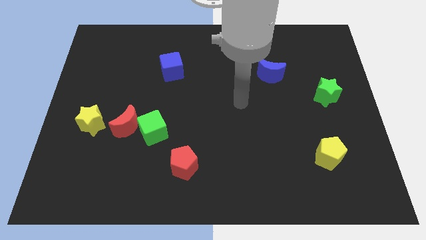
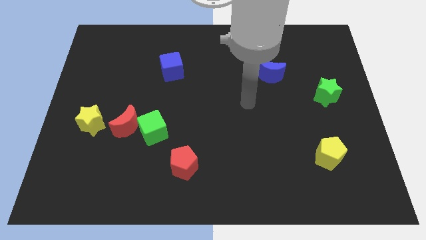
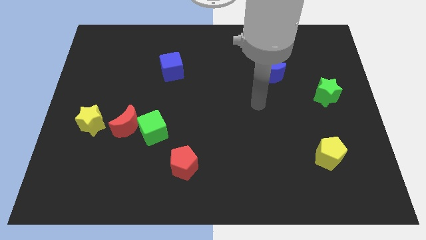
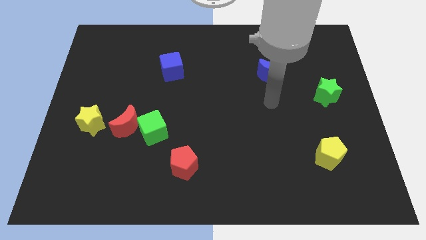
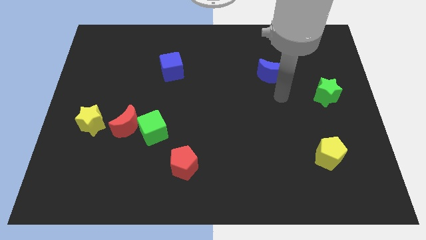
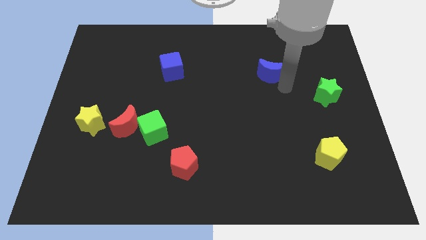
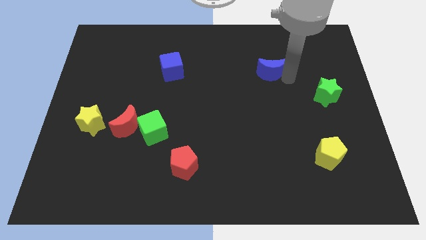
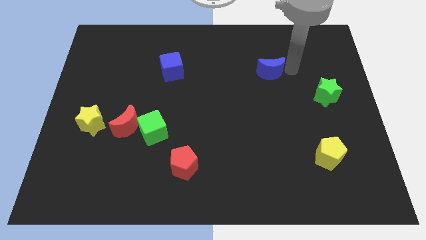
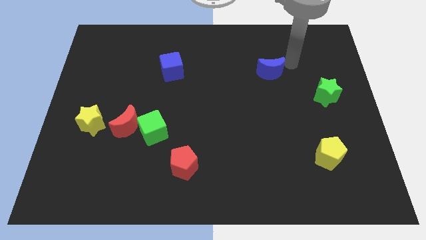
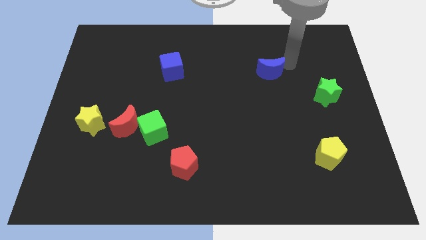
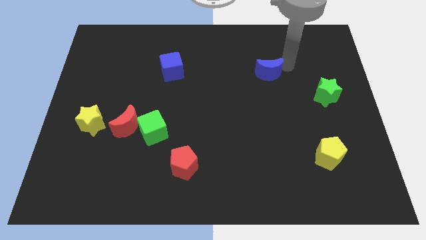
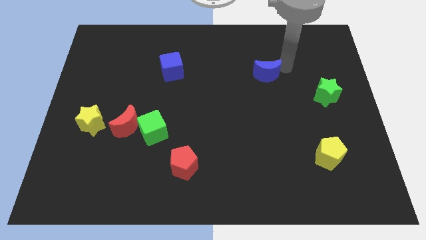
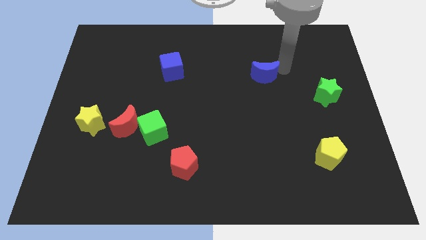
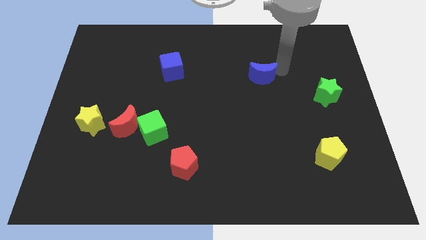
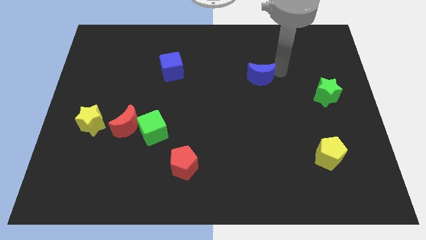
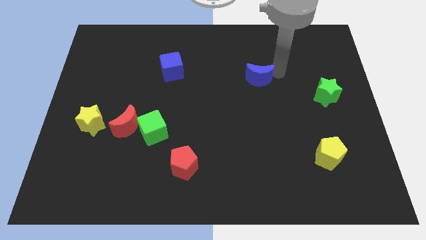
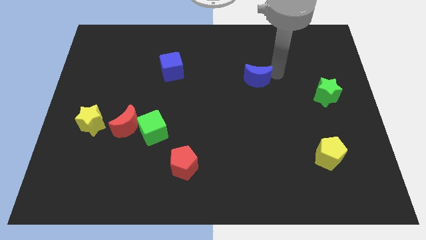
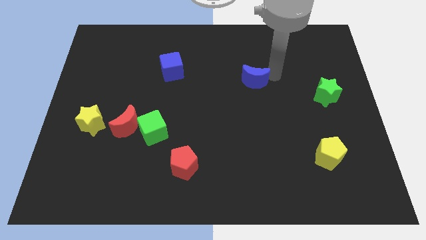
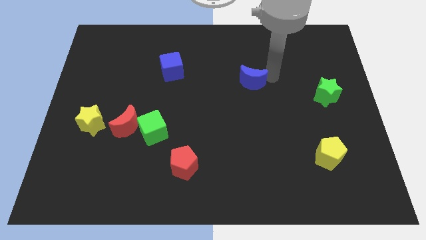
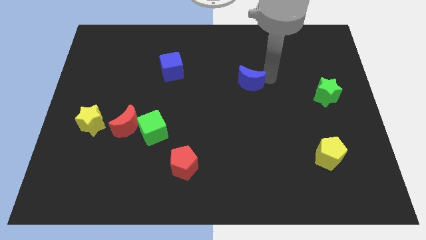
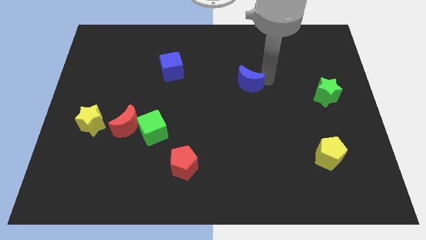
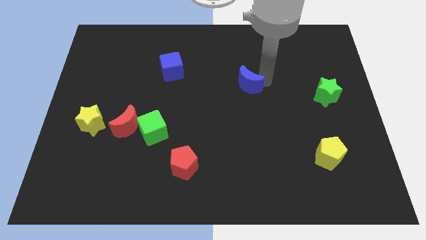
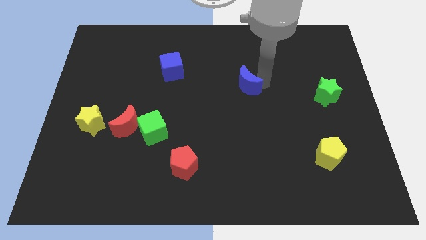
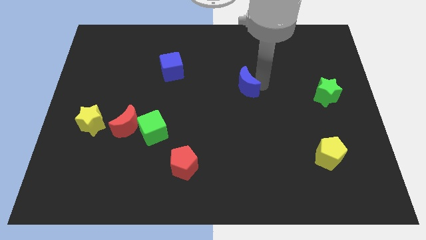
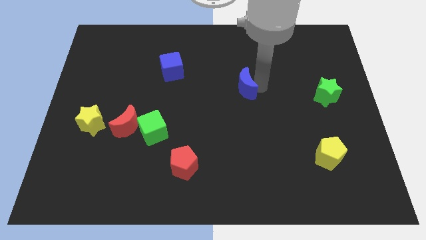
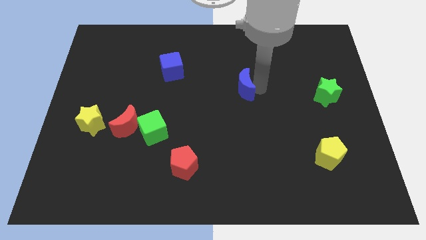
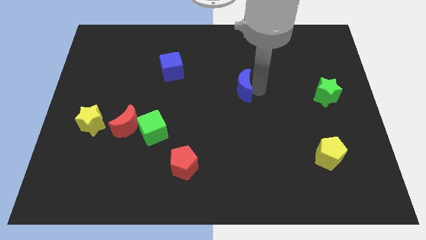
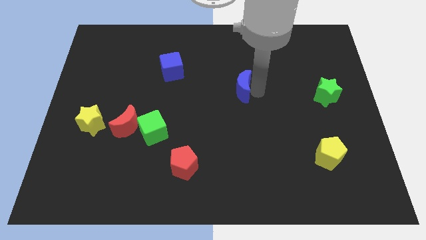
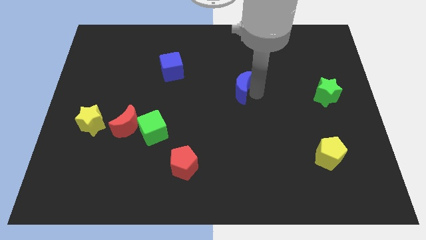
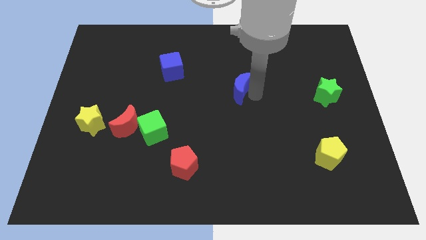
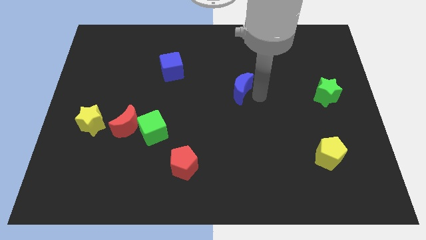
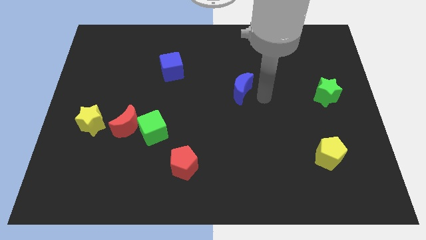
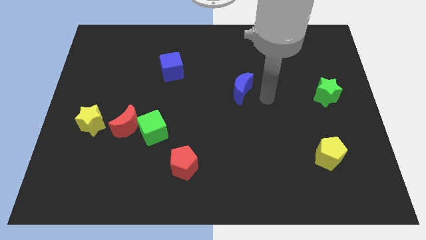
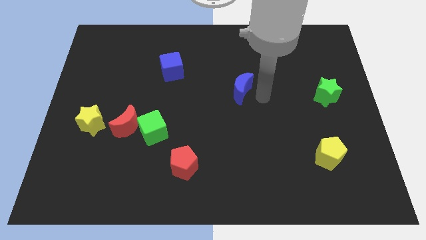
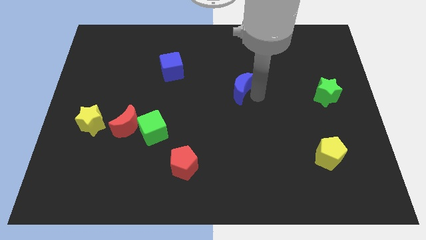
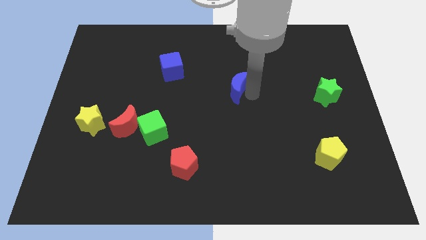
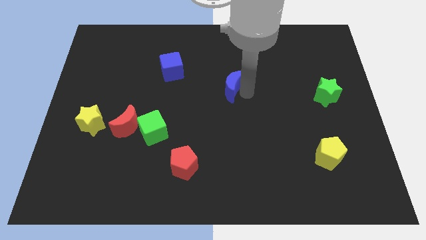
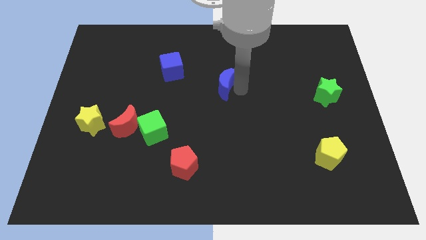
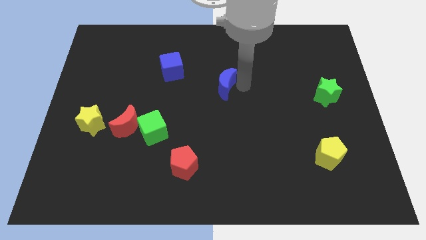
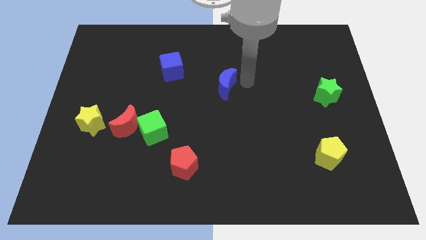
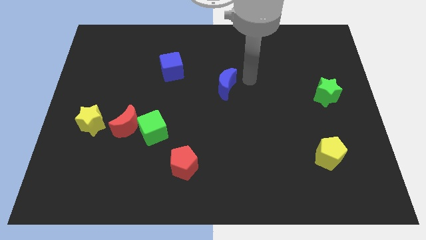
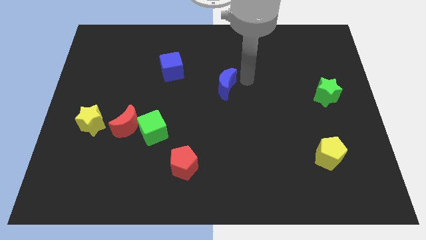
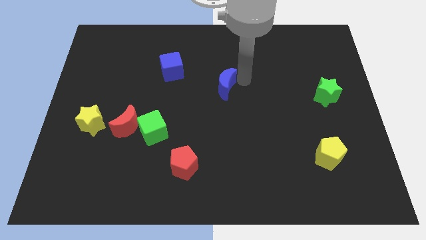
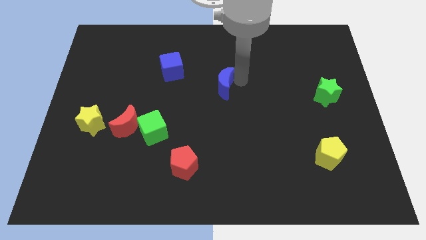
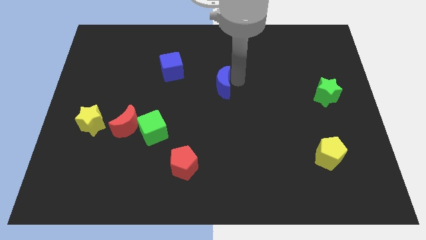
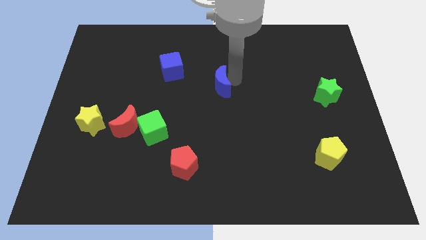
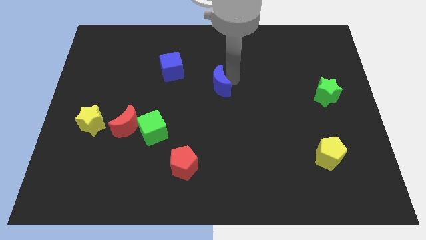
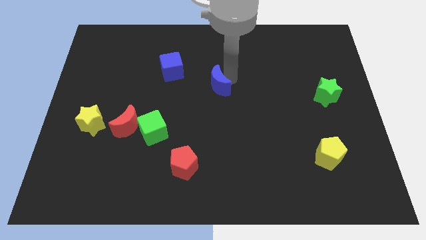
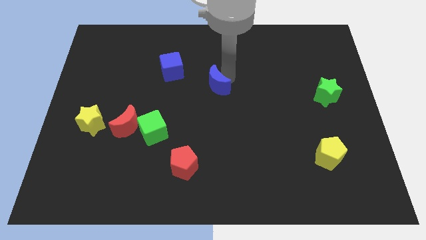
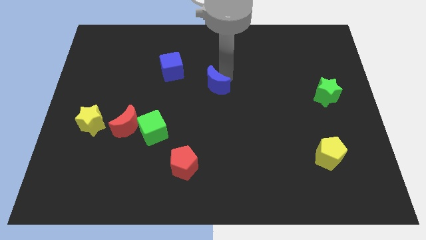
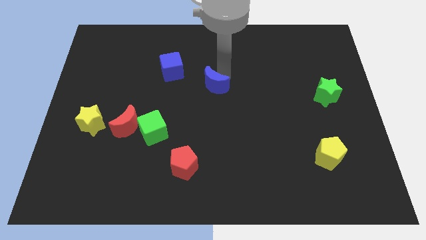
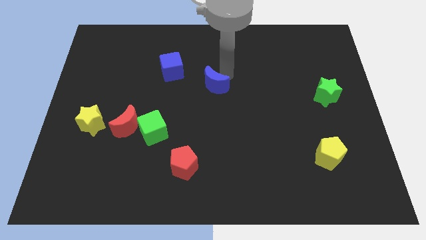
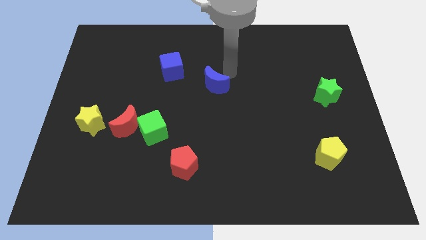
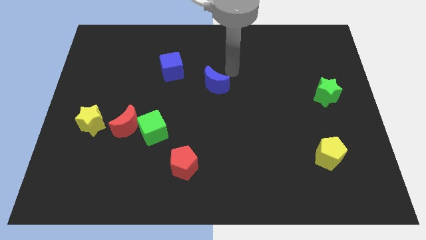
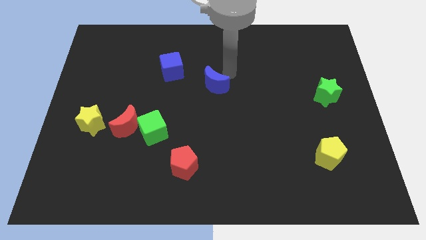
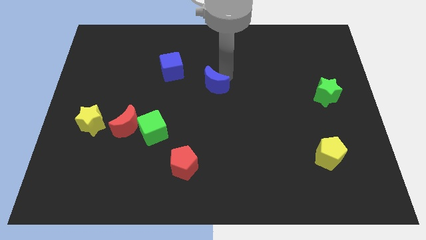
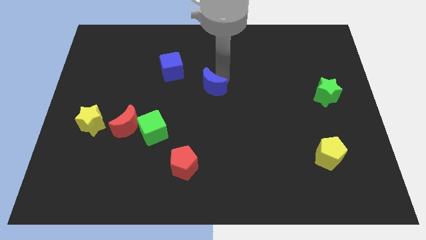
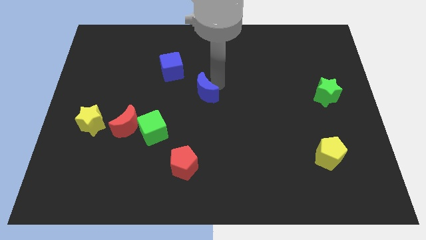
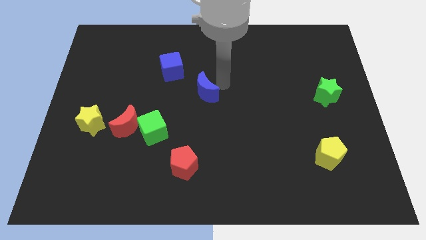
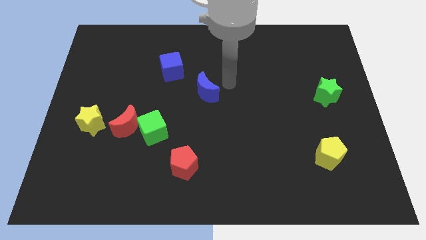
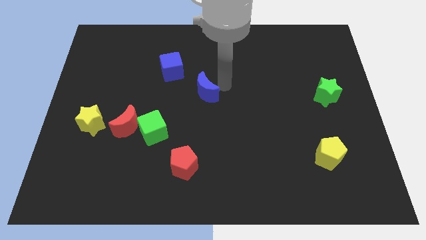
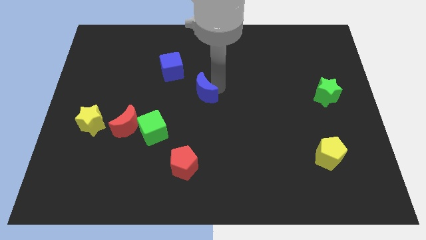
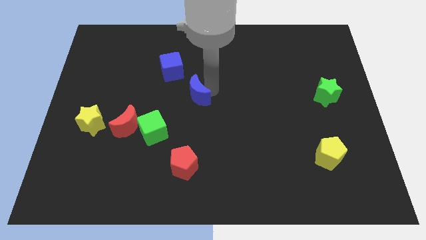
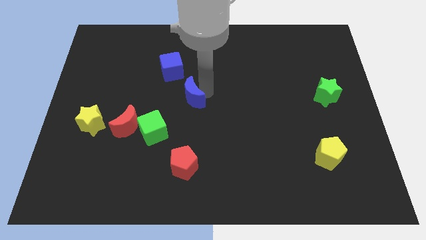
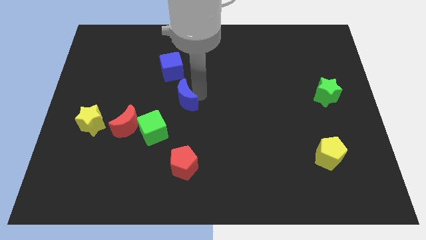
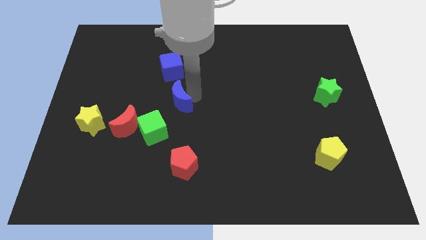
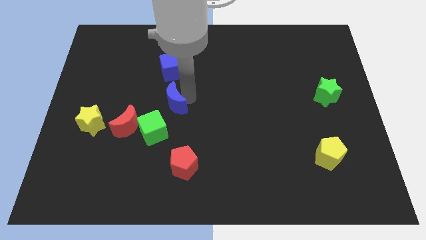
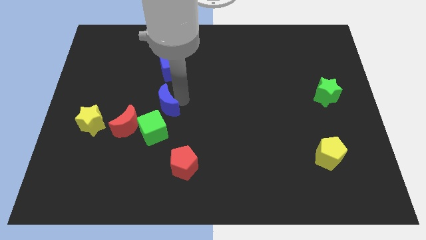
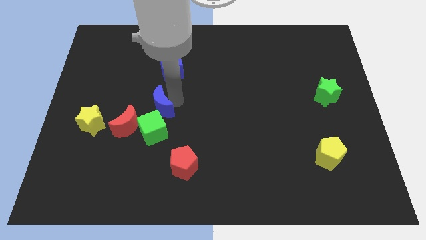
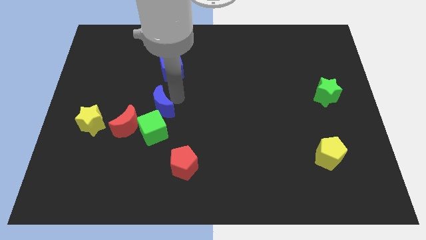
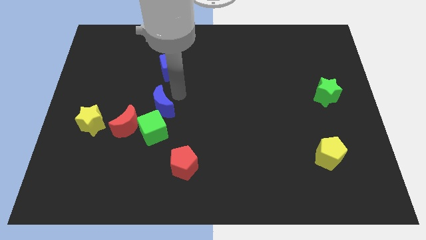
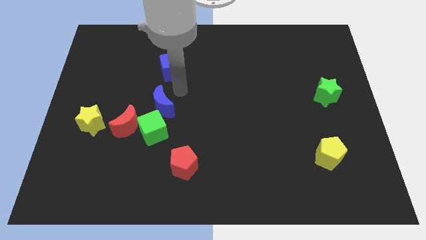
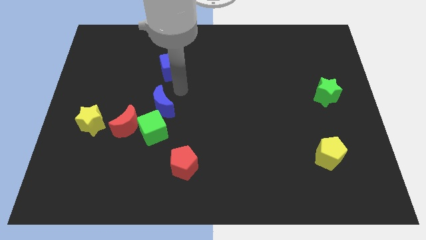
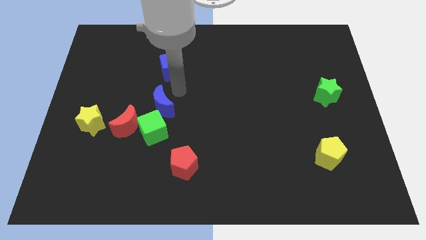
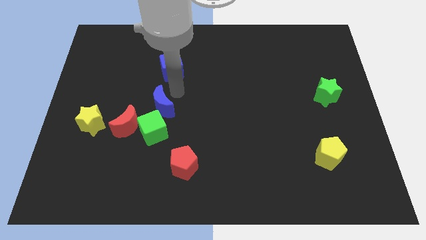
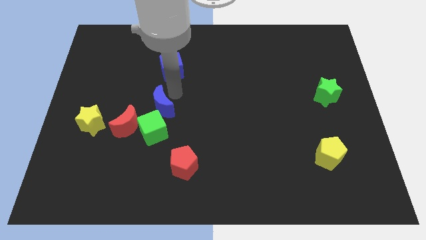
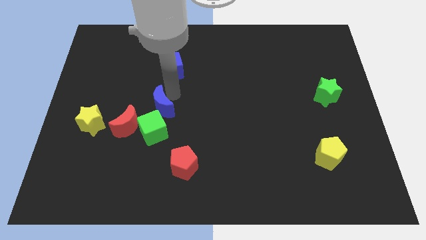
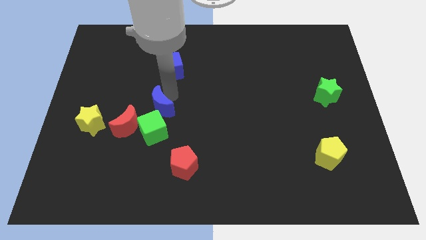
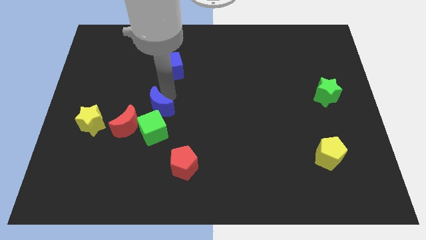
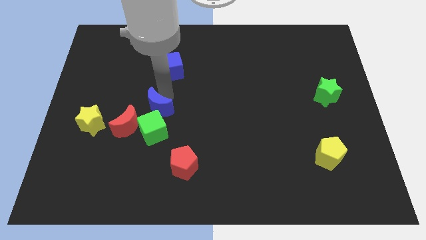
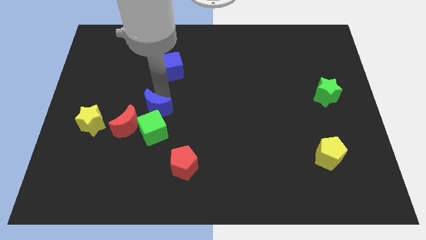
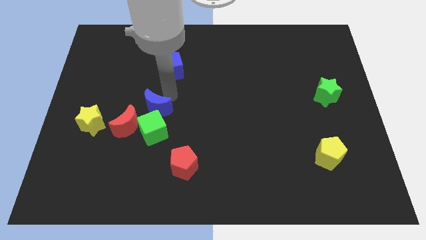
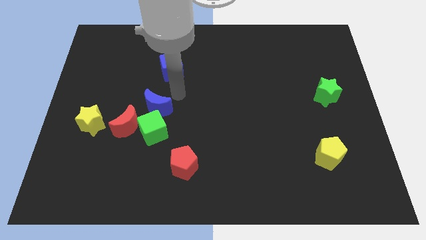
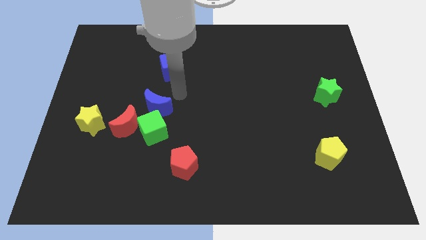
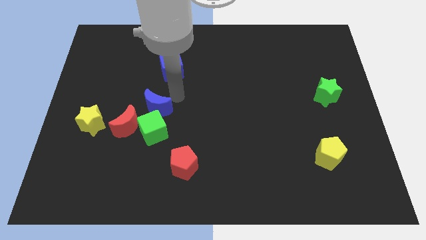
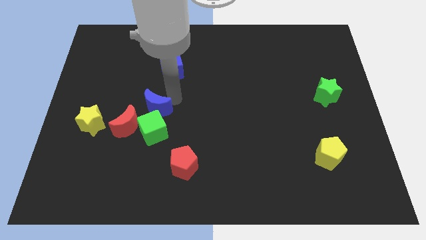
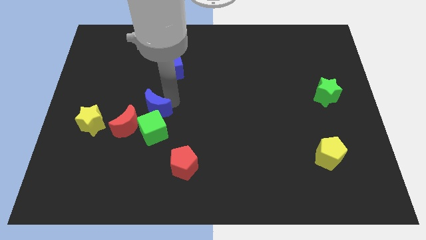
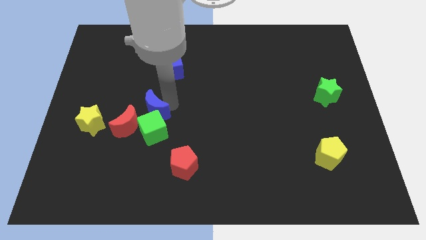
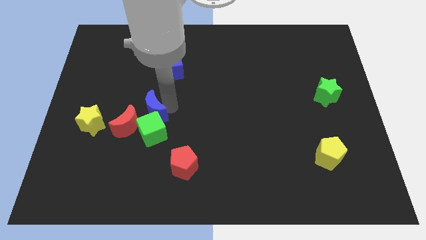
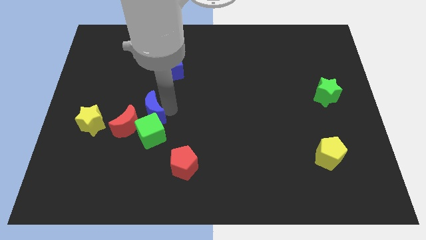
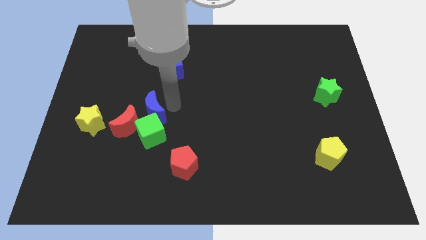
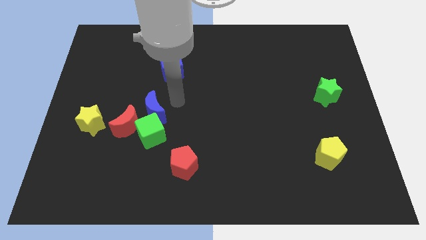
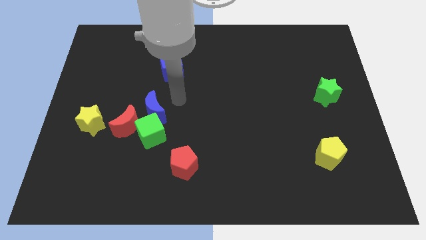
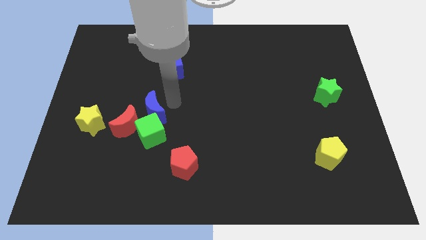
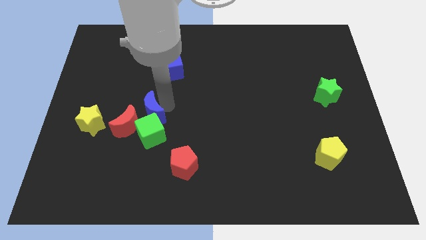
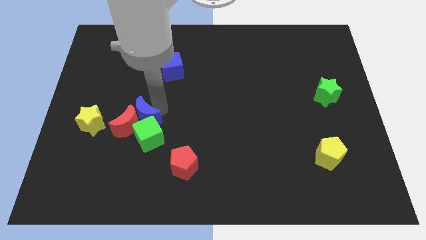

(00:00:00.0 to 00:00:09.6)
move the blue moon next to the red moon
